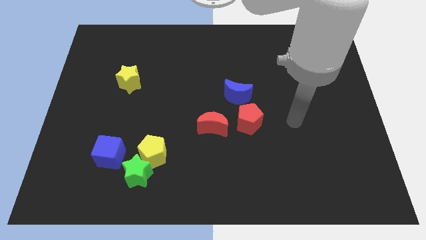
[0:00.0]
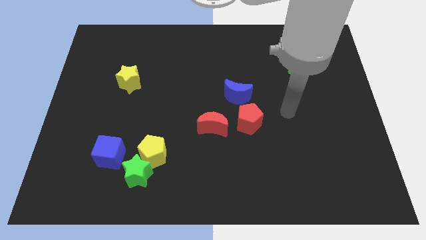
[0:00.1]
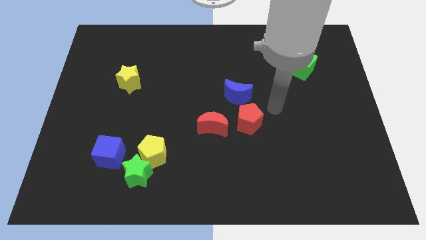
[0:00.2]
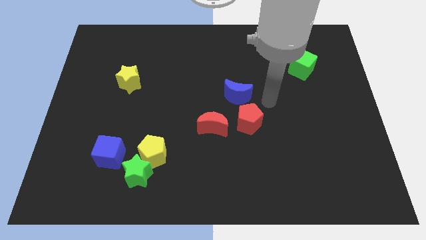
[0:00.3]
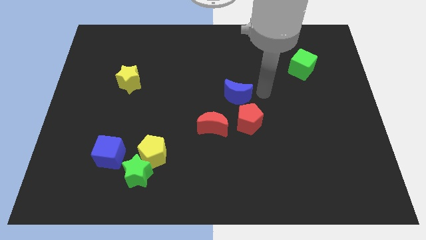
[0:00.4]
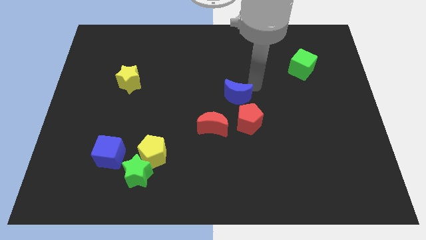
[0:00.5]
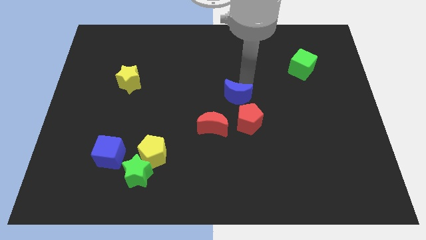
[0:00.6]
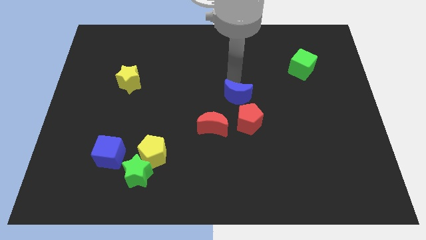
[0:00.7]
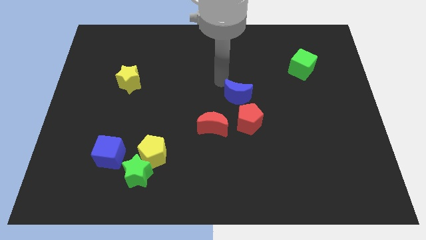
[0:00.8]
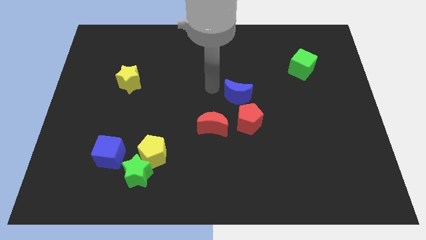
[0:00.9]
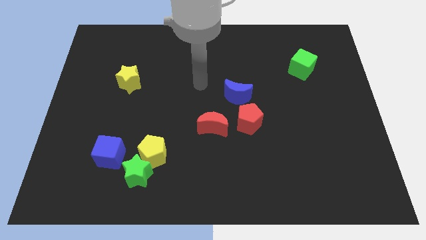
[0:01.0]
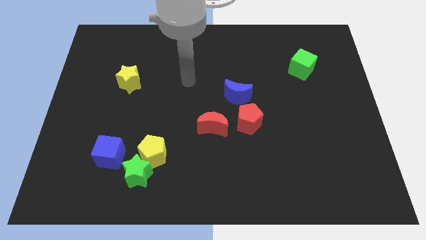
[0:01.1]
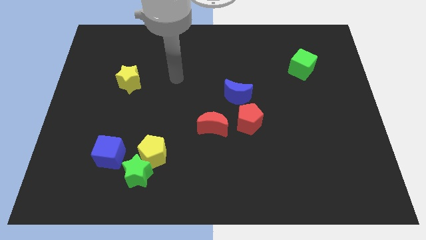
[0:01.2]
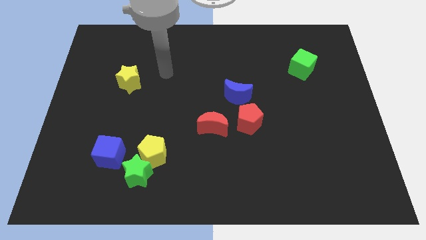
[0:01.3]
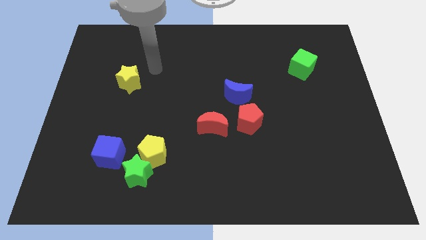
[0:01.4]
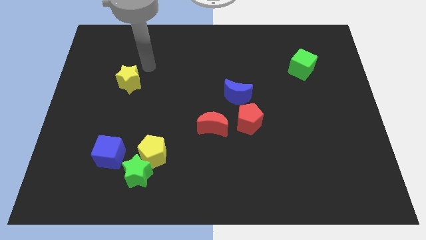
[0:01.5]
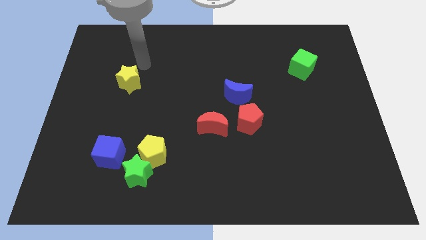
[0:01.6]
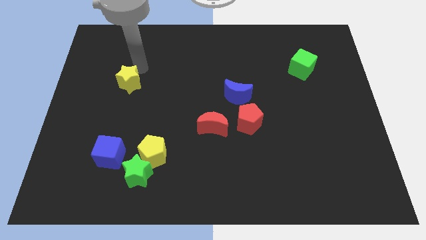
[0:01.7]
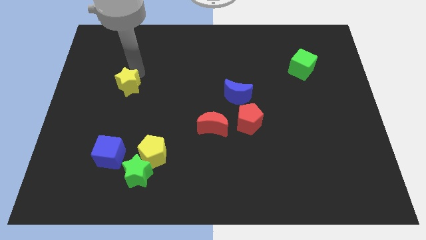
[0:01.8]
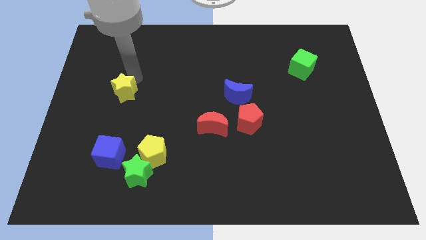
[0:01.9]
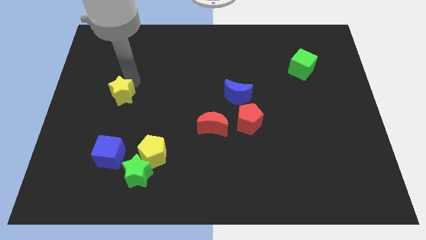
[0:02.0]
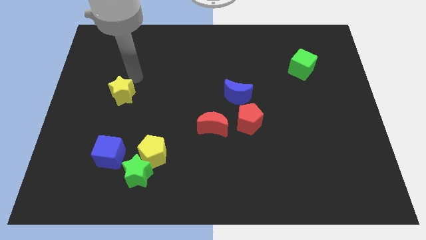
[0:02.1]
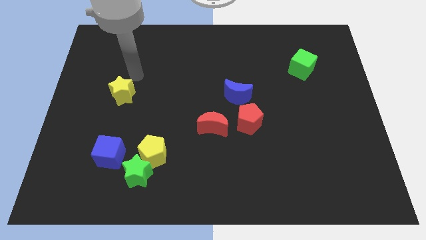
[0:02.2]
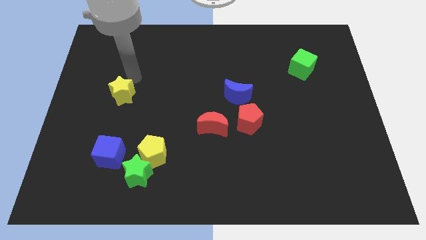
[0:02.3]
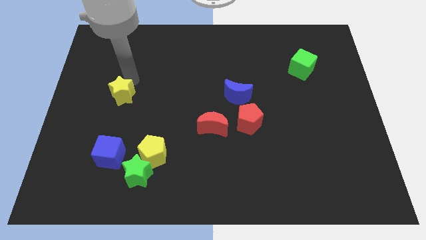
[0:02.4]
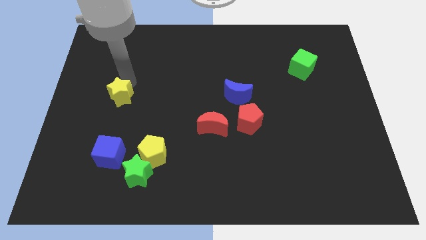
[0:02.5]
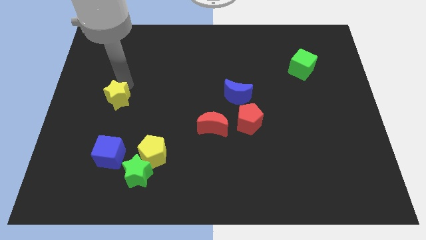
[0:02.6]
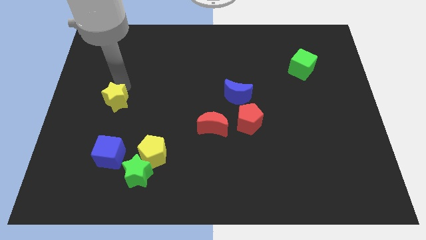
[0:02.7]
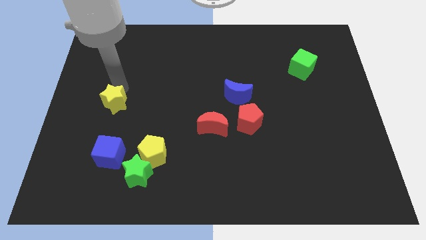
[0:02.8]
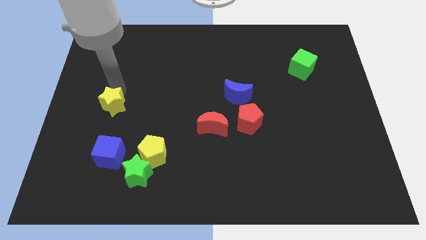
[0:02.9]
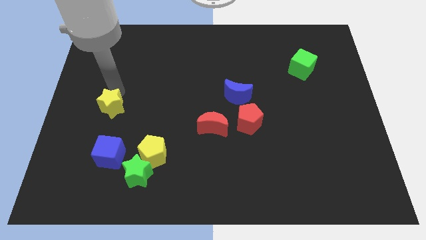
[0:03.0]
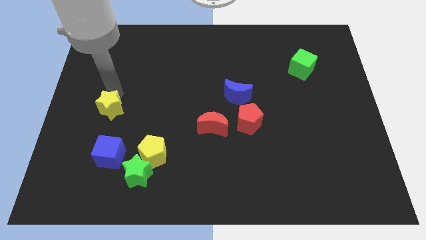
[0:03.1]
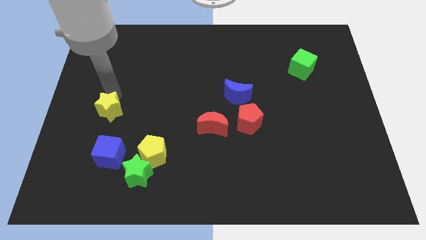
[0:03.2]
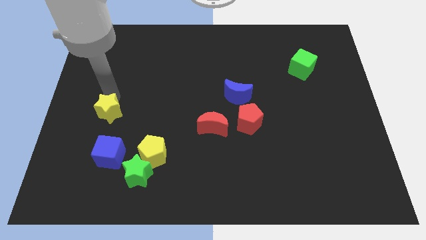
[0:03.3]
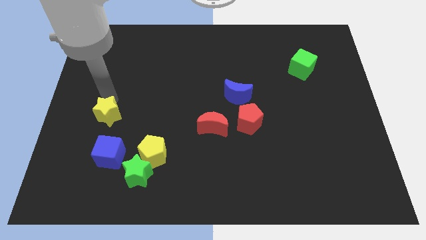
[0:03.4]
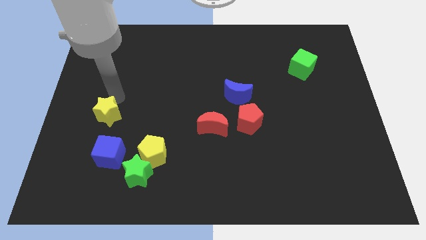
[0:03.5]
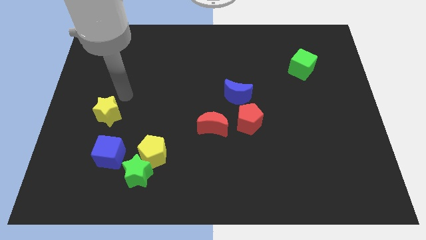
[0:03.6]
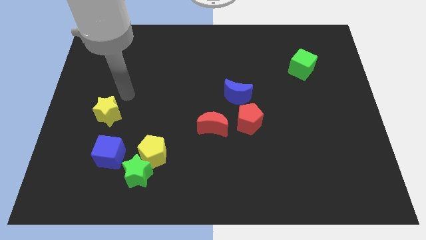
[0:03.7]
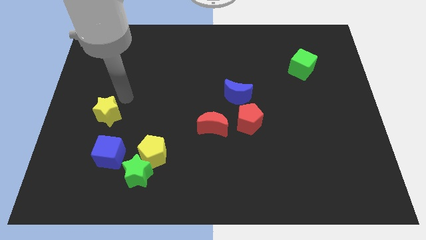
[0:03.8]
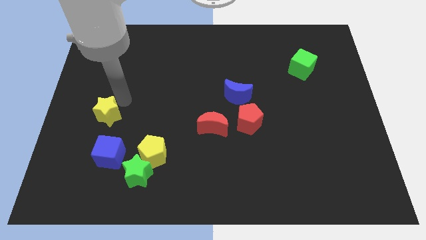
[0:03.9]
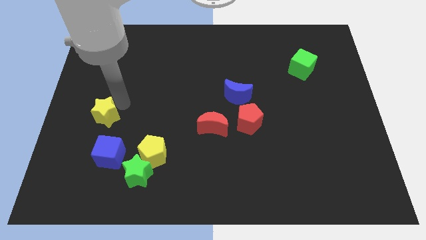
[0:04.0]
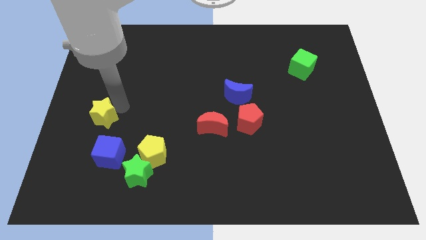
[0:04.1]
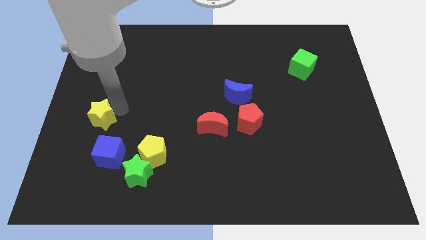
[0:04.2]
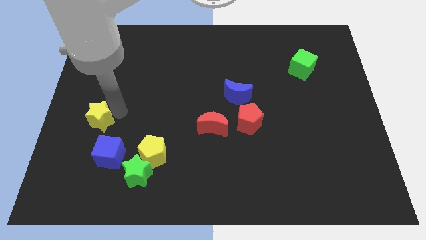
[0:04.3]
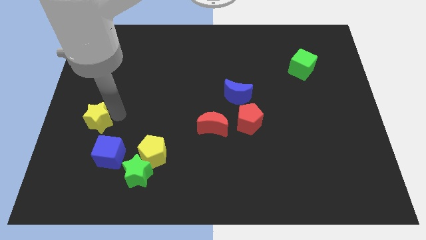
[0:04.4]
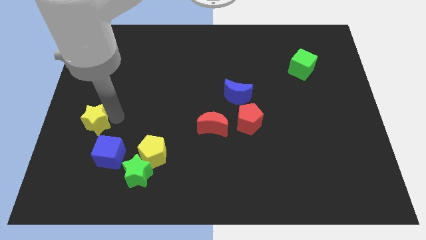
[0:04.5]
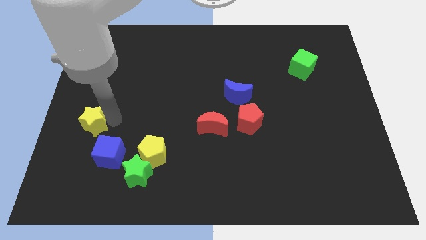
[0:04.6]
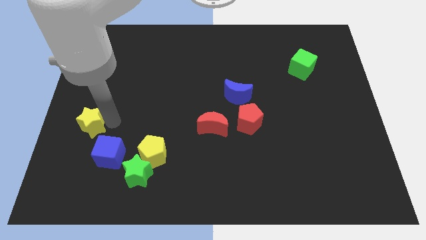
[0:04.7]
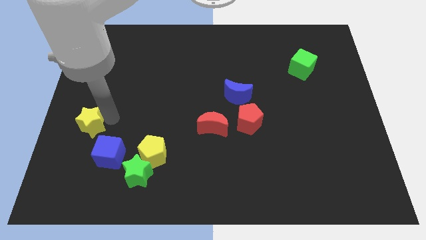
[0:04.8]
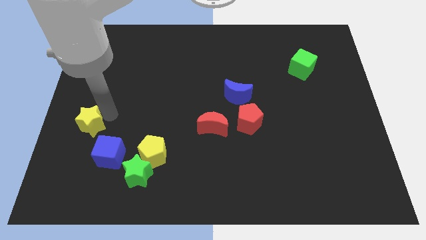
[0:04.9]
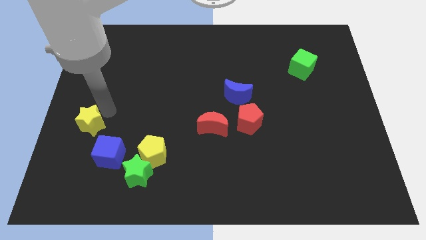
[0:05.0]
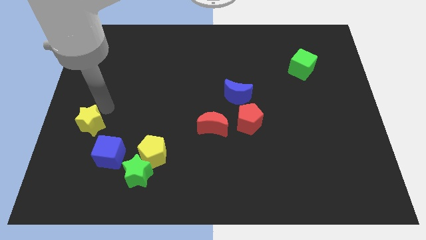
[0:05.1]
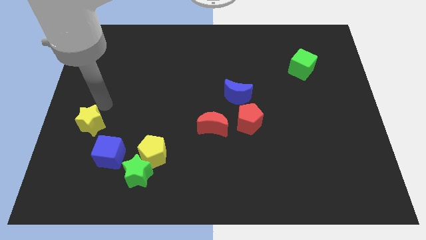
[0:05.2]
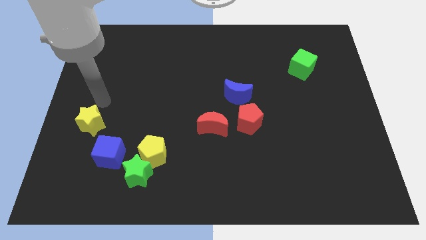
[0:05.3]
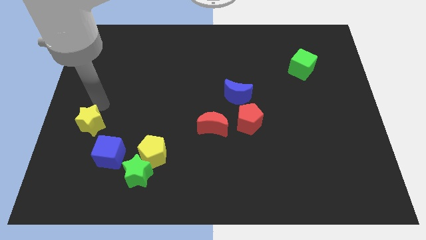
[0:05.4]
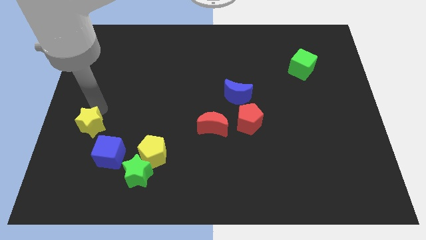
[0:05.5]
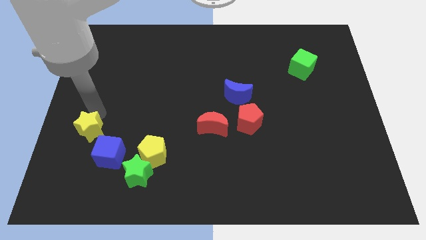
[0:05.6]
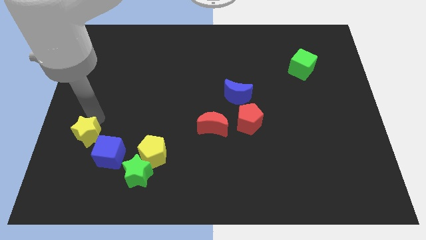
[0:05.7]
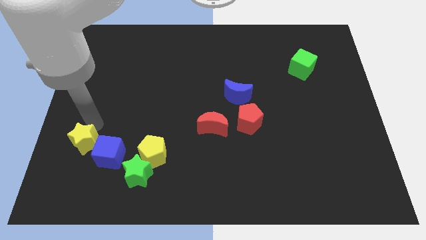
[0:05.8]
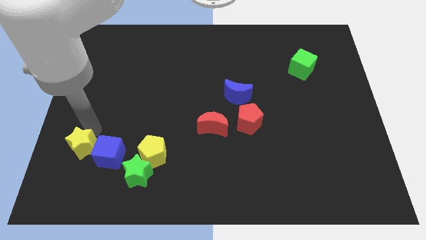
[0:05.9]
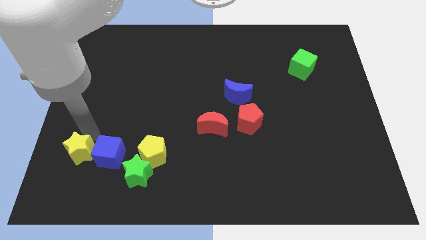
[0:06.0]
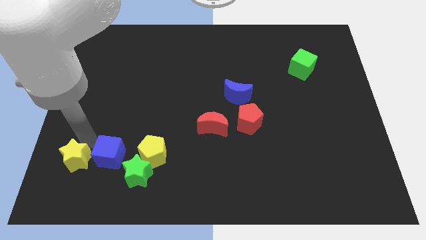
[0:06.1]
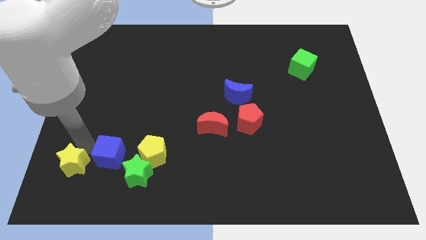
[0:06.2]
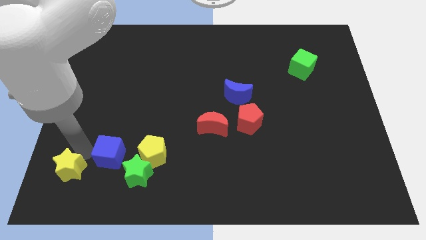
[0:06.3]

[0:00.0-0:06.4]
push the yellow star to the bottom left corner

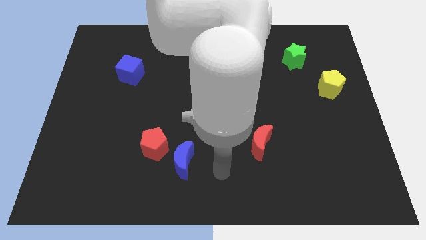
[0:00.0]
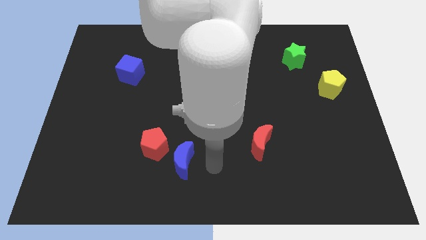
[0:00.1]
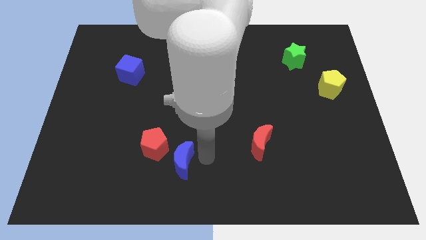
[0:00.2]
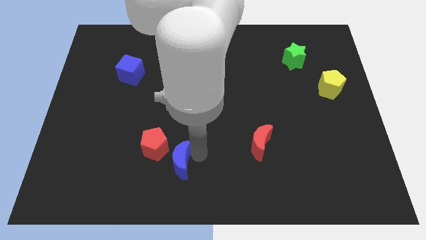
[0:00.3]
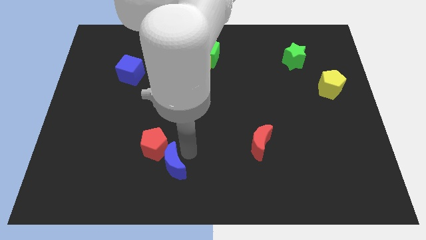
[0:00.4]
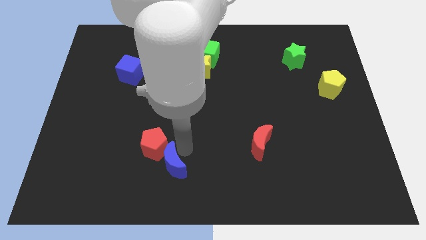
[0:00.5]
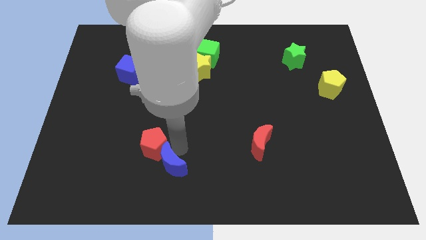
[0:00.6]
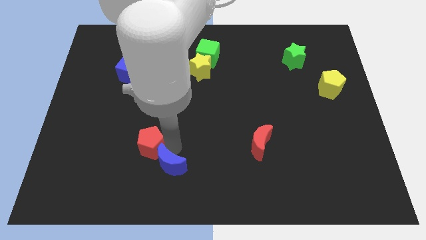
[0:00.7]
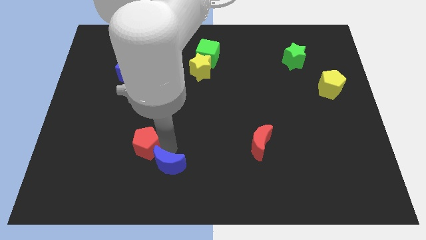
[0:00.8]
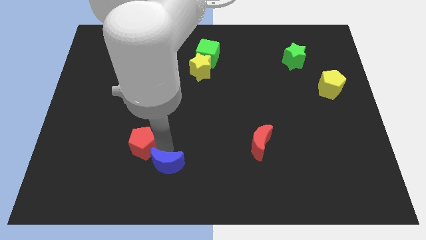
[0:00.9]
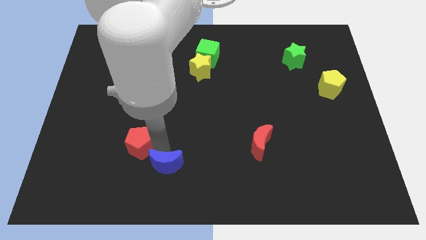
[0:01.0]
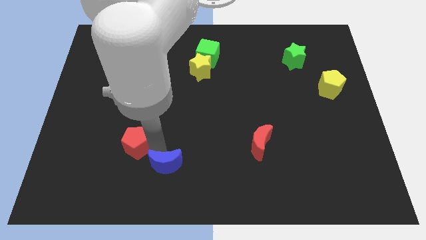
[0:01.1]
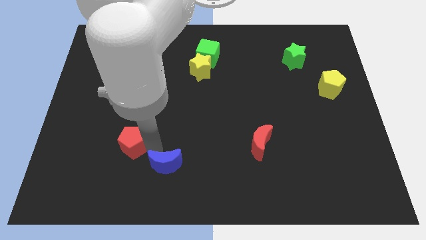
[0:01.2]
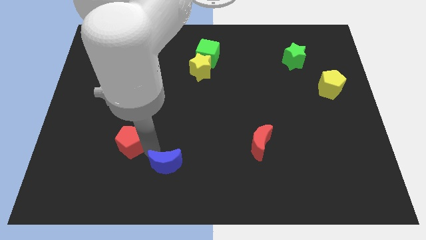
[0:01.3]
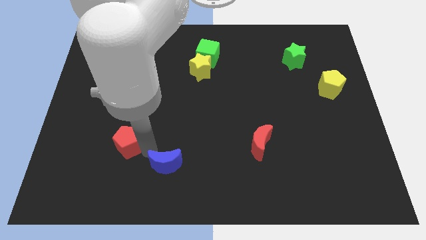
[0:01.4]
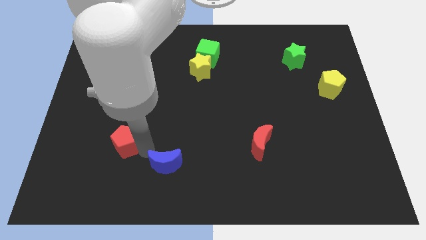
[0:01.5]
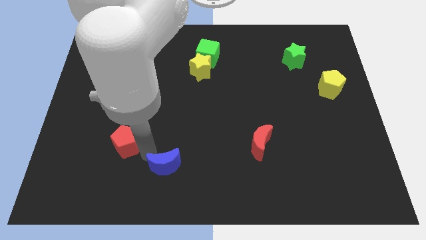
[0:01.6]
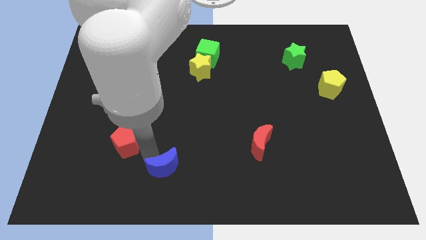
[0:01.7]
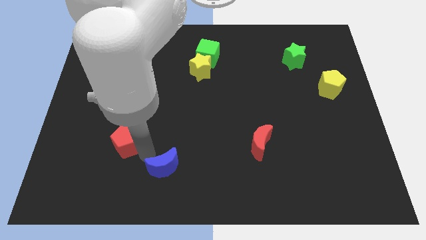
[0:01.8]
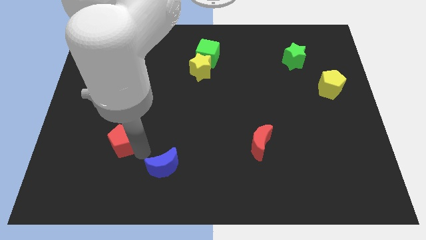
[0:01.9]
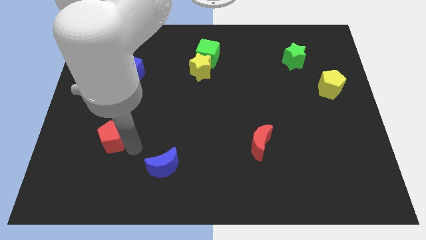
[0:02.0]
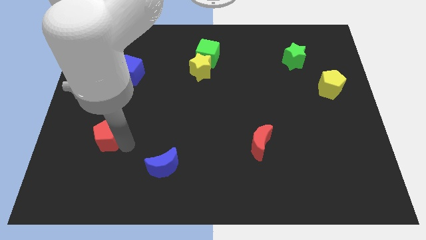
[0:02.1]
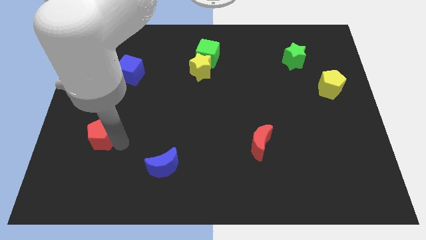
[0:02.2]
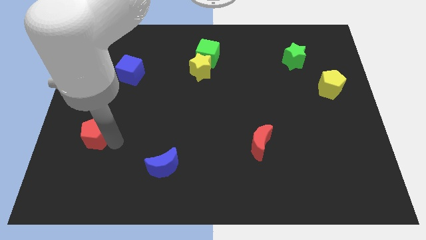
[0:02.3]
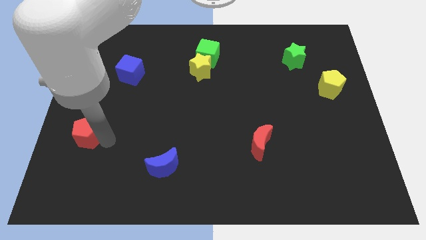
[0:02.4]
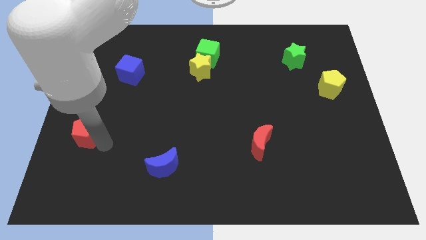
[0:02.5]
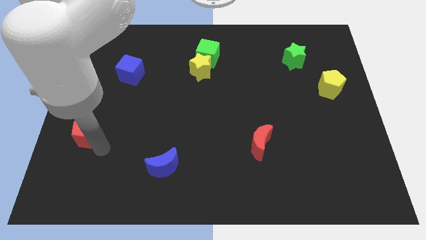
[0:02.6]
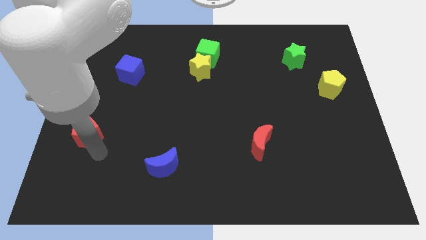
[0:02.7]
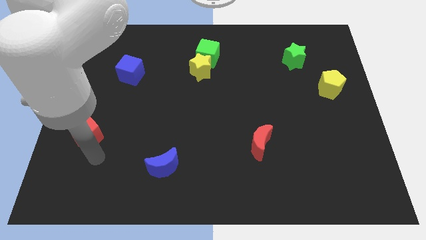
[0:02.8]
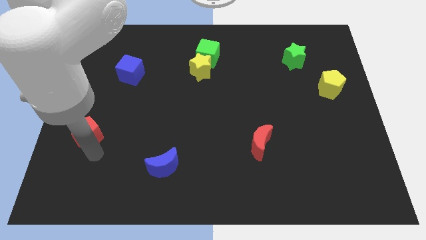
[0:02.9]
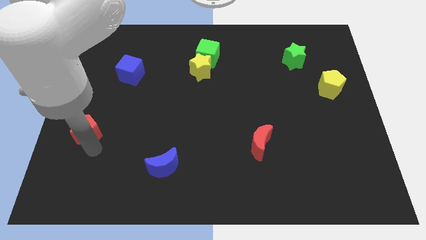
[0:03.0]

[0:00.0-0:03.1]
put the red pentagon to the left side of the board
